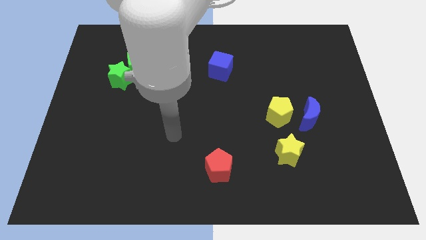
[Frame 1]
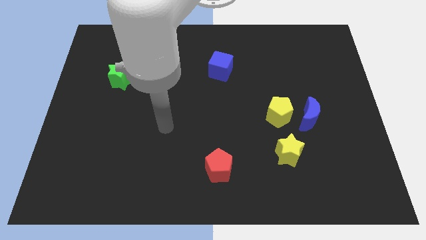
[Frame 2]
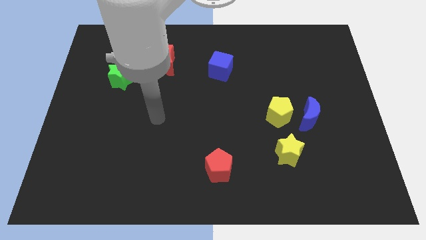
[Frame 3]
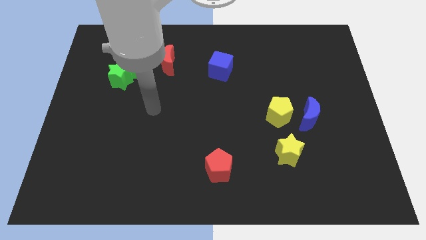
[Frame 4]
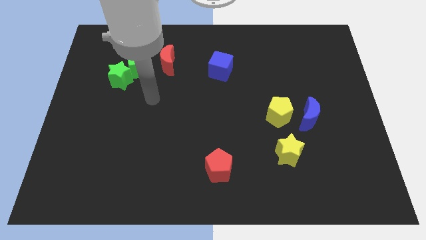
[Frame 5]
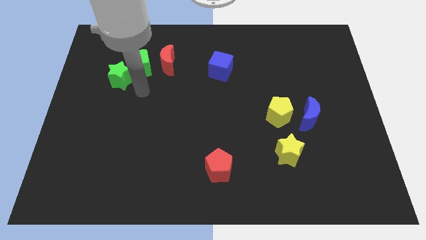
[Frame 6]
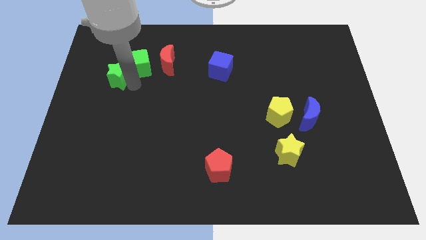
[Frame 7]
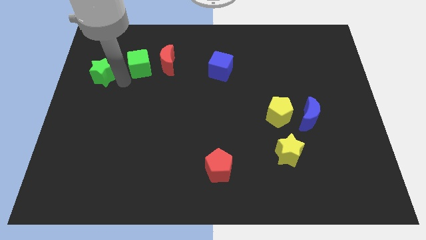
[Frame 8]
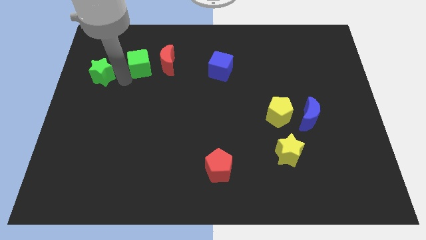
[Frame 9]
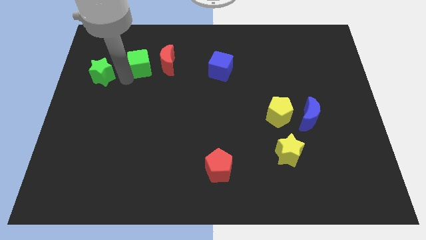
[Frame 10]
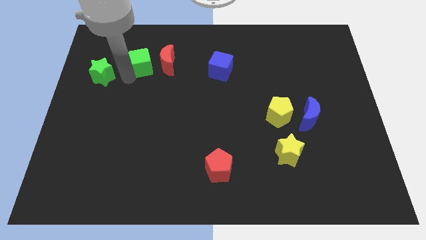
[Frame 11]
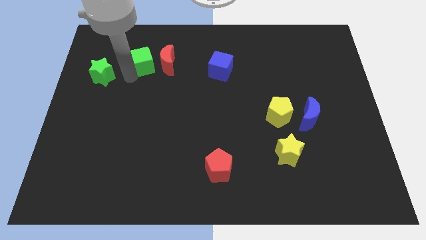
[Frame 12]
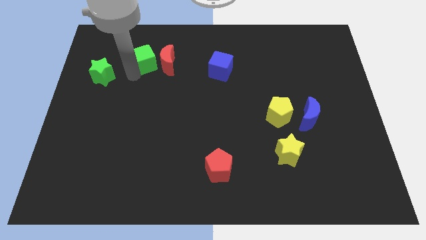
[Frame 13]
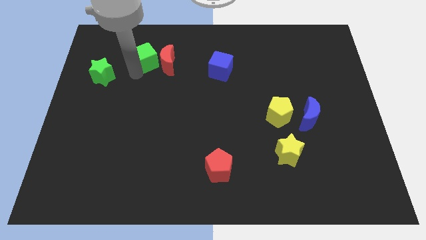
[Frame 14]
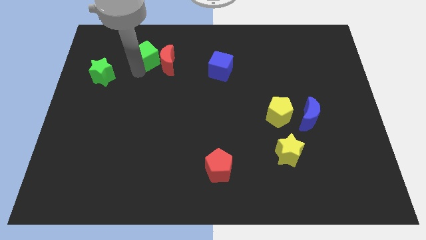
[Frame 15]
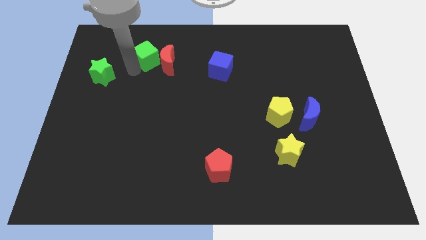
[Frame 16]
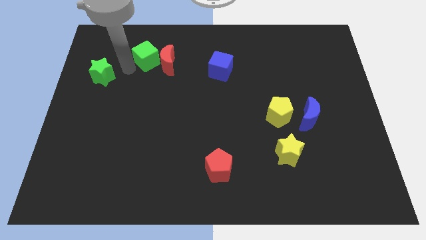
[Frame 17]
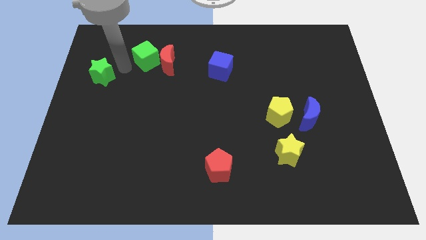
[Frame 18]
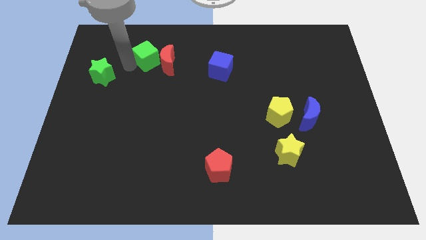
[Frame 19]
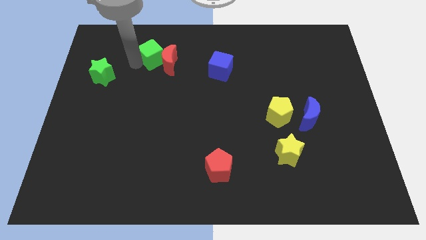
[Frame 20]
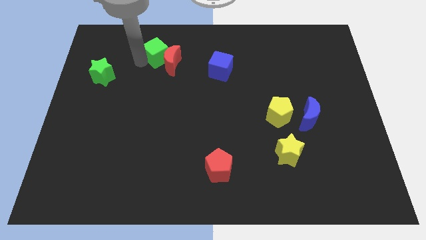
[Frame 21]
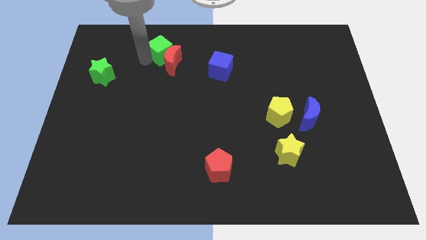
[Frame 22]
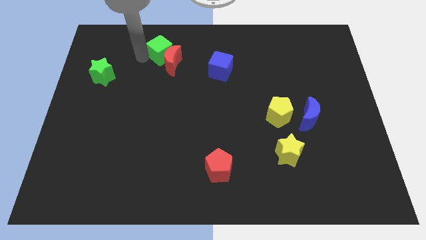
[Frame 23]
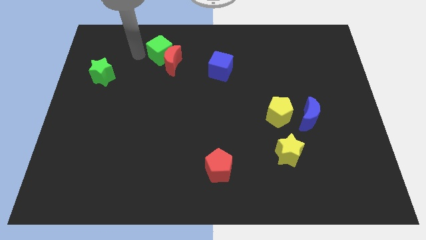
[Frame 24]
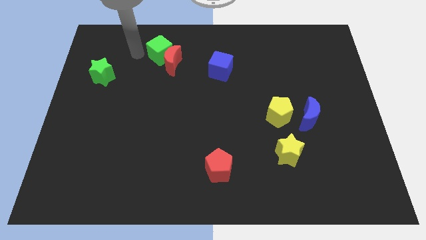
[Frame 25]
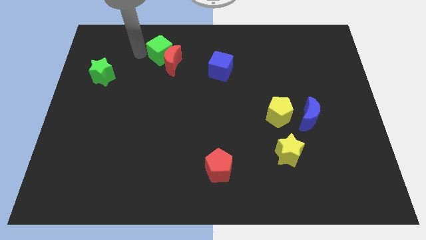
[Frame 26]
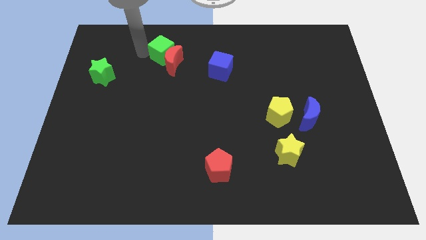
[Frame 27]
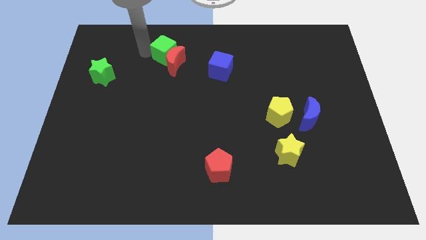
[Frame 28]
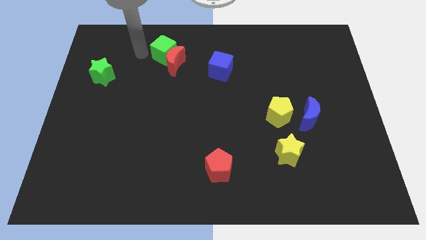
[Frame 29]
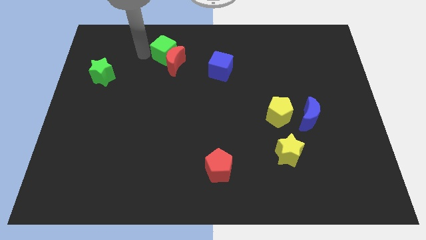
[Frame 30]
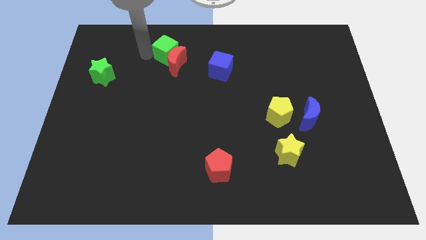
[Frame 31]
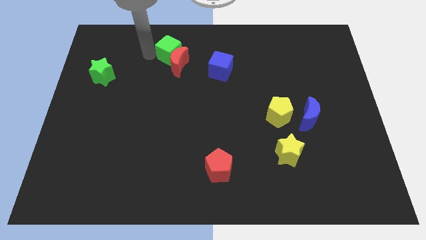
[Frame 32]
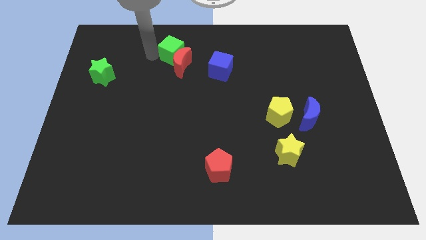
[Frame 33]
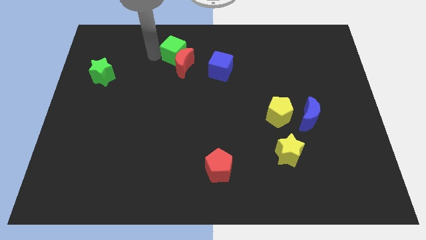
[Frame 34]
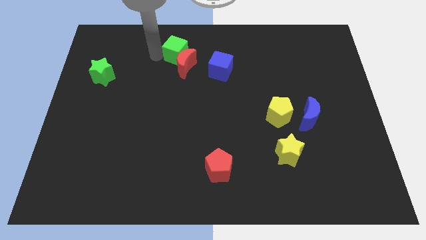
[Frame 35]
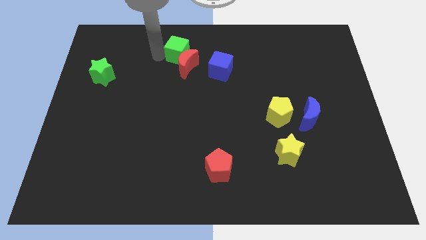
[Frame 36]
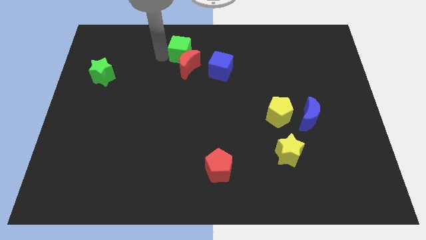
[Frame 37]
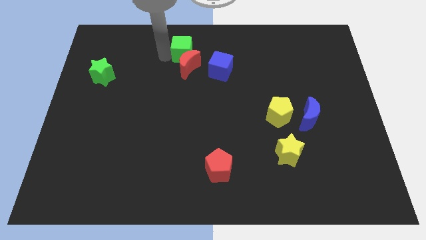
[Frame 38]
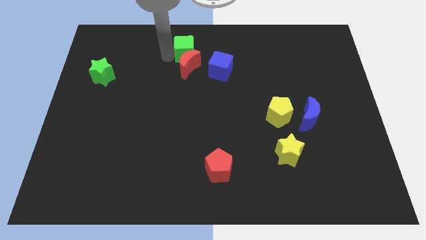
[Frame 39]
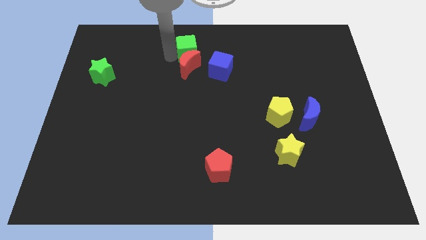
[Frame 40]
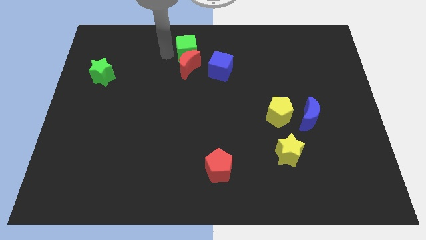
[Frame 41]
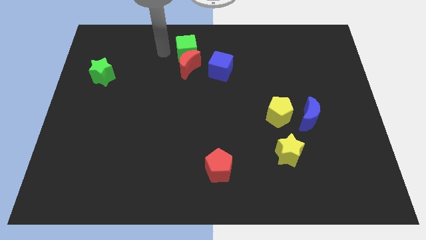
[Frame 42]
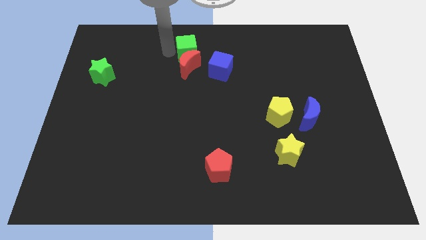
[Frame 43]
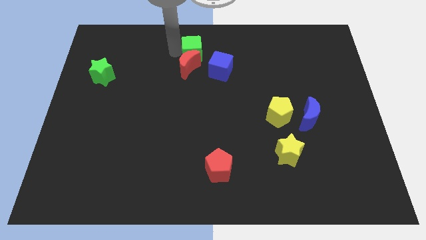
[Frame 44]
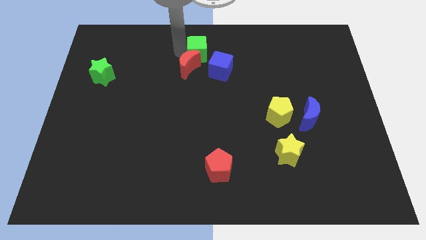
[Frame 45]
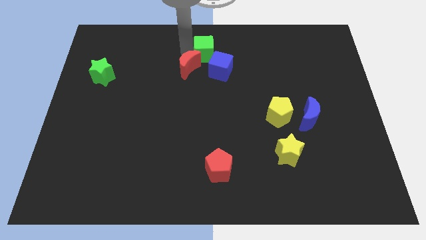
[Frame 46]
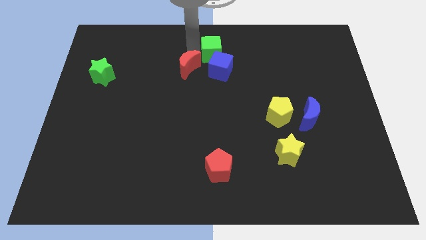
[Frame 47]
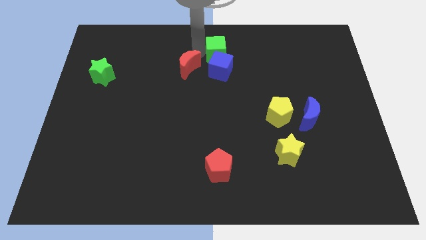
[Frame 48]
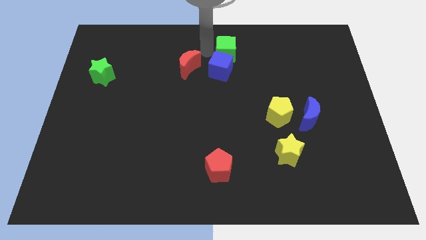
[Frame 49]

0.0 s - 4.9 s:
slide the green cube right

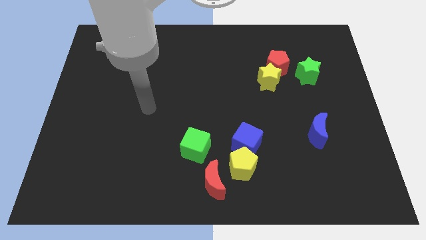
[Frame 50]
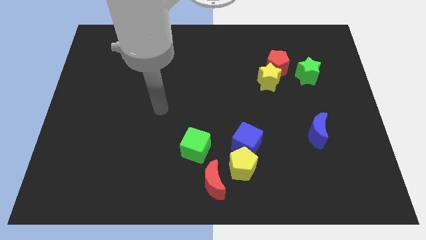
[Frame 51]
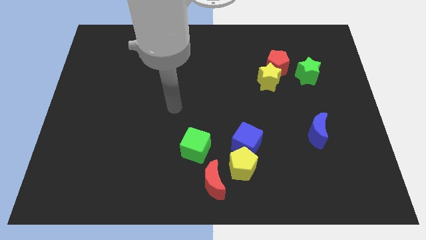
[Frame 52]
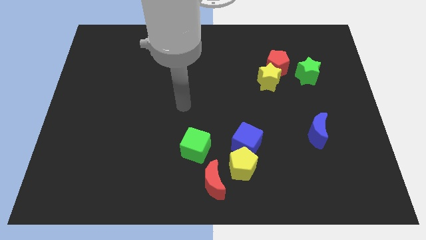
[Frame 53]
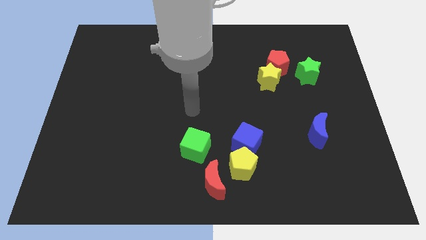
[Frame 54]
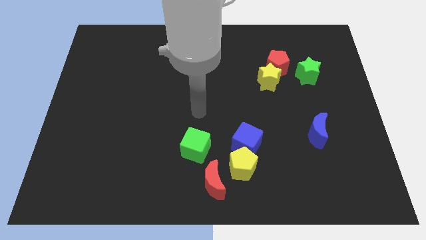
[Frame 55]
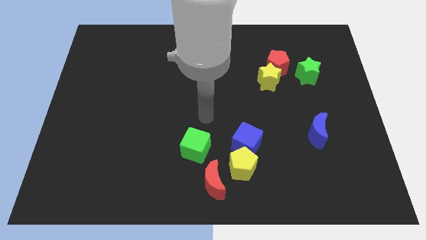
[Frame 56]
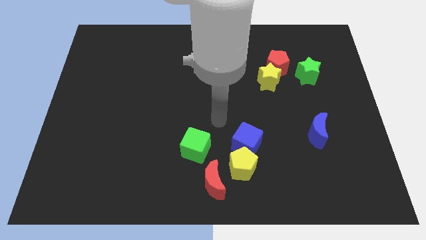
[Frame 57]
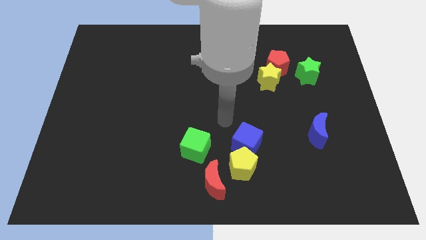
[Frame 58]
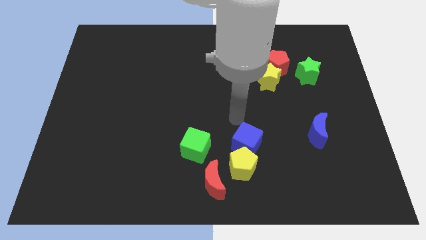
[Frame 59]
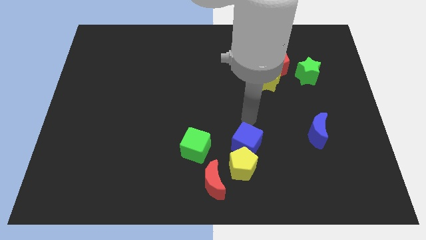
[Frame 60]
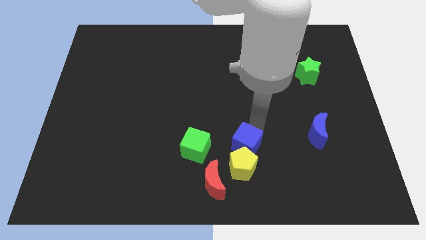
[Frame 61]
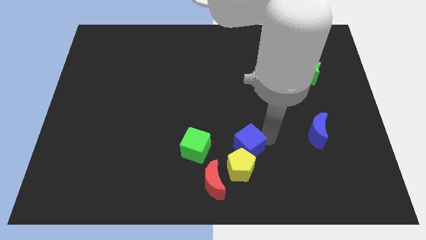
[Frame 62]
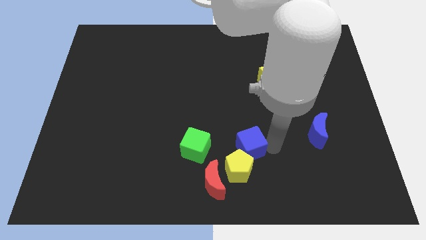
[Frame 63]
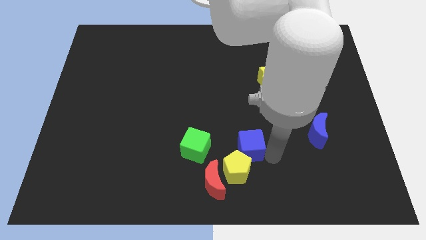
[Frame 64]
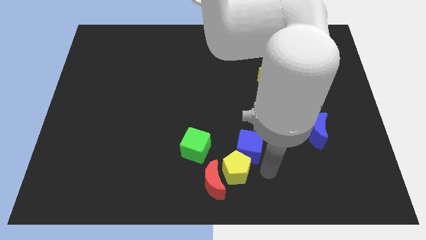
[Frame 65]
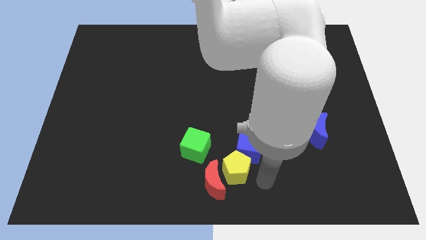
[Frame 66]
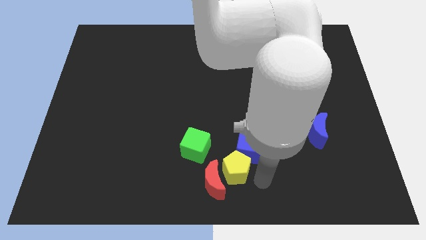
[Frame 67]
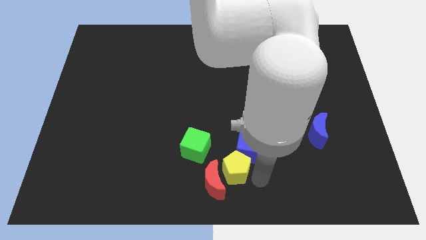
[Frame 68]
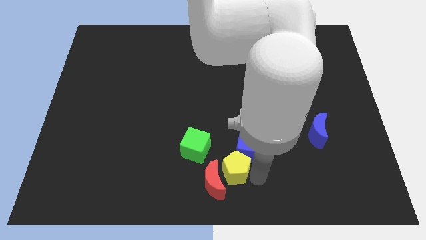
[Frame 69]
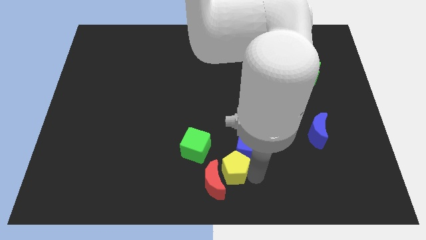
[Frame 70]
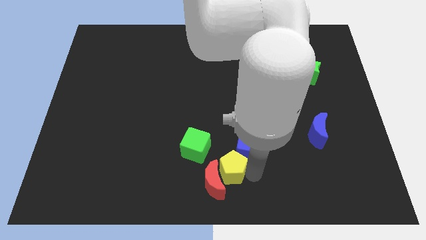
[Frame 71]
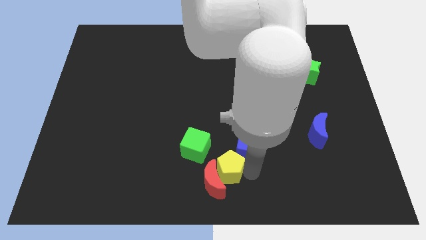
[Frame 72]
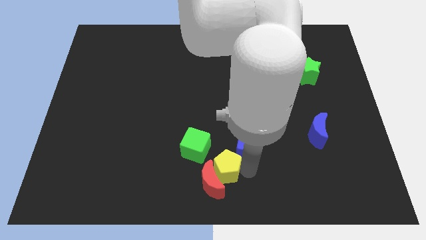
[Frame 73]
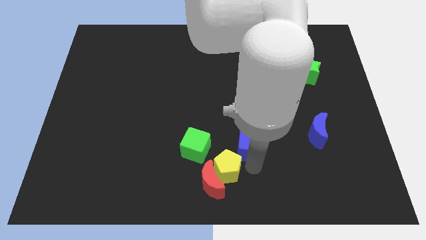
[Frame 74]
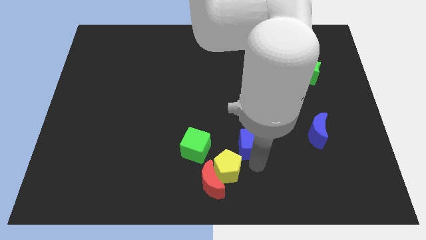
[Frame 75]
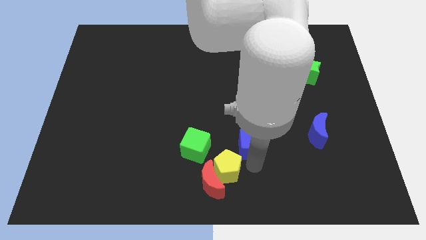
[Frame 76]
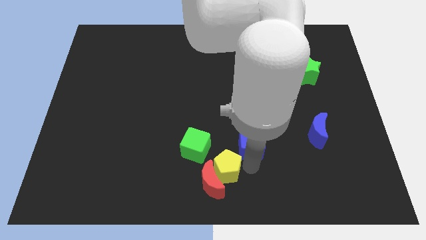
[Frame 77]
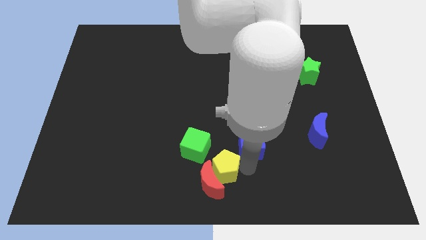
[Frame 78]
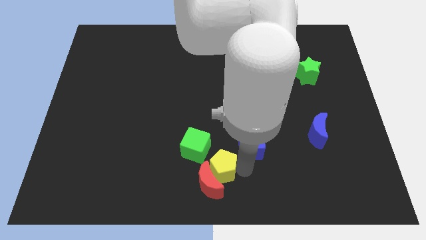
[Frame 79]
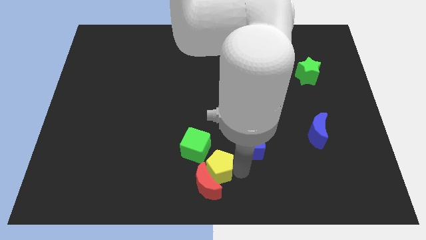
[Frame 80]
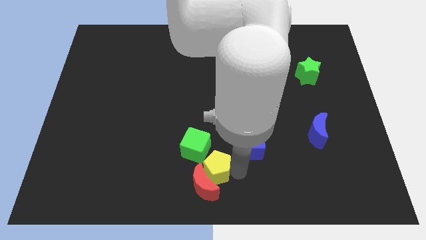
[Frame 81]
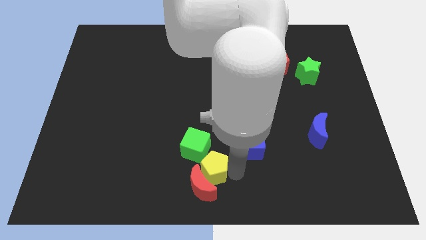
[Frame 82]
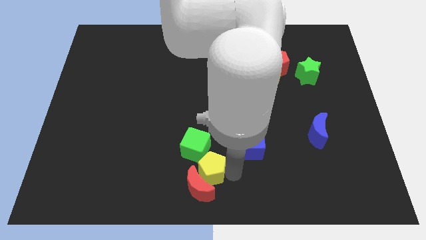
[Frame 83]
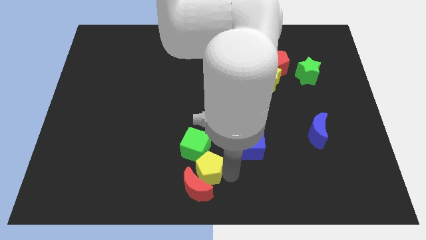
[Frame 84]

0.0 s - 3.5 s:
move the yellow pentagon a little to the left

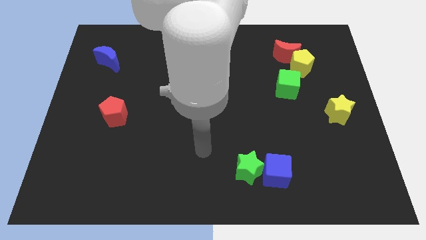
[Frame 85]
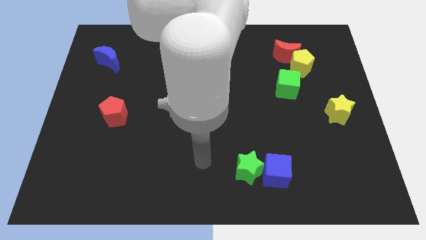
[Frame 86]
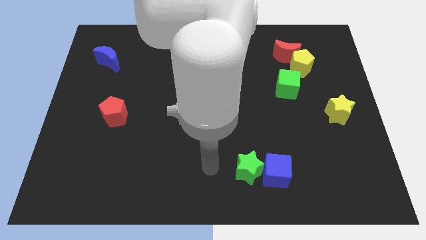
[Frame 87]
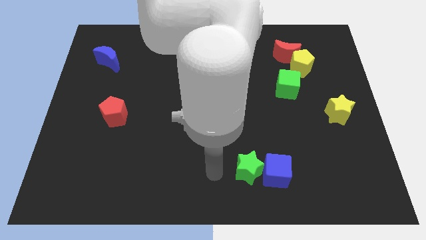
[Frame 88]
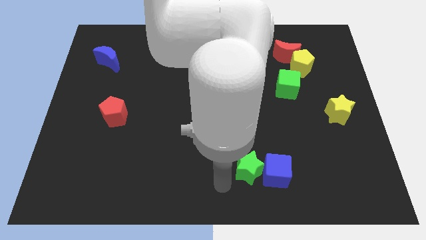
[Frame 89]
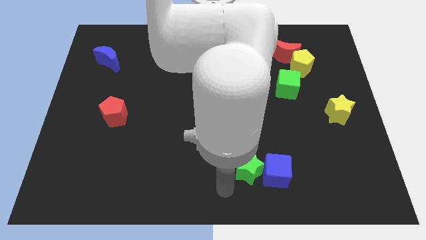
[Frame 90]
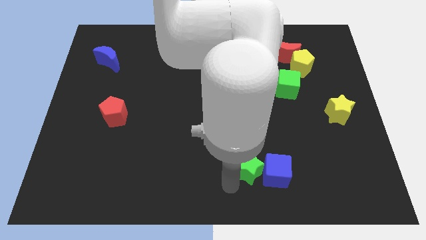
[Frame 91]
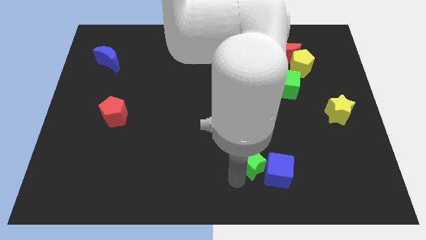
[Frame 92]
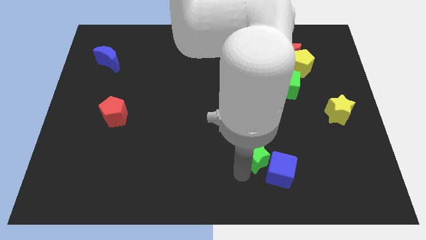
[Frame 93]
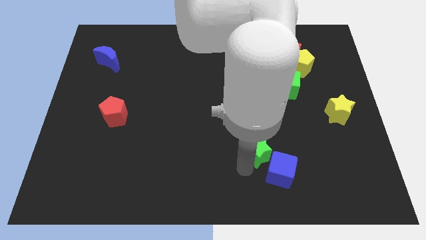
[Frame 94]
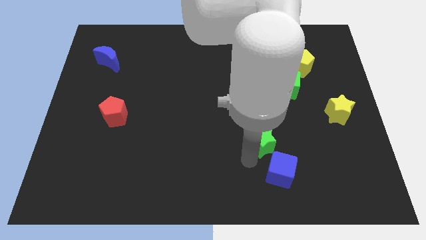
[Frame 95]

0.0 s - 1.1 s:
slightly slide the green star diagonally upwards and to the right
